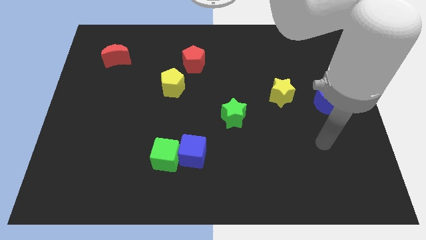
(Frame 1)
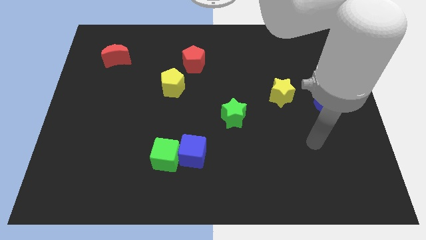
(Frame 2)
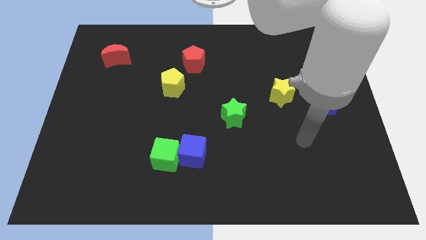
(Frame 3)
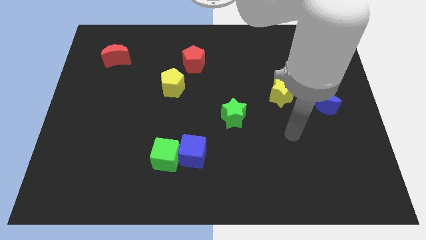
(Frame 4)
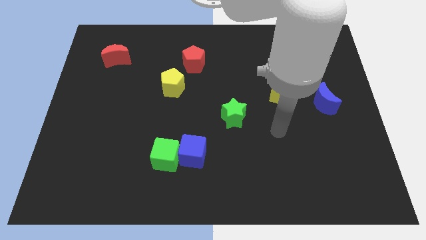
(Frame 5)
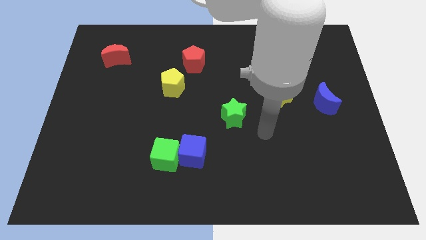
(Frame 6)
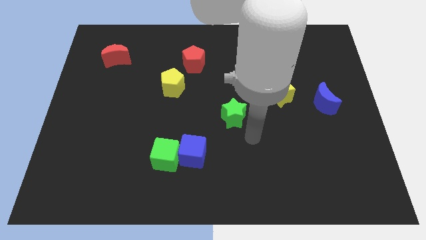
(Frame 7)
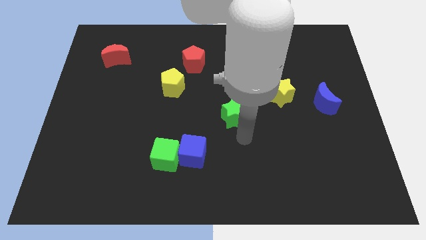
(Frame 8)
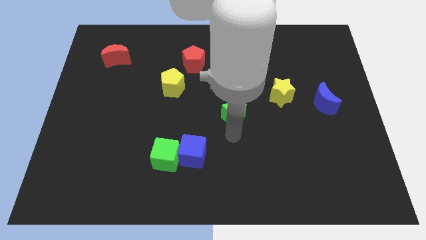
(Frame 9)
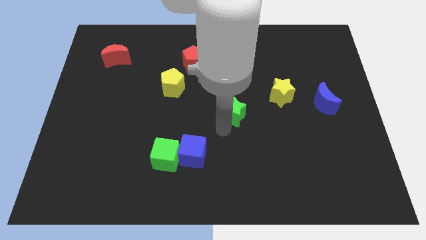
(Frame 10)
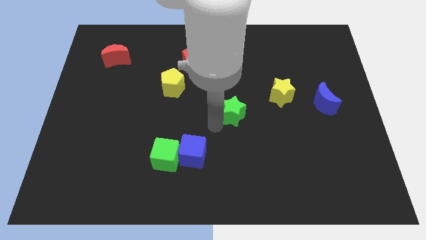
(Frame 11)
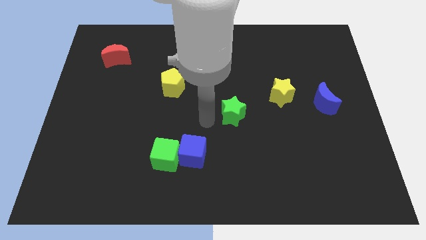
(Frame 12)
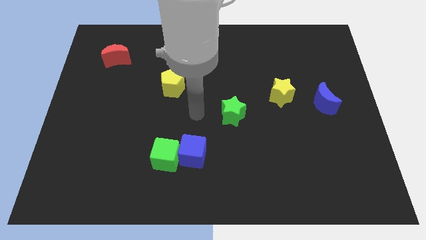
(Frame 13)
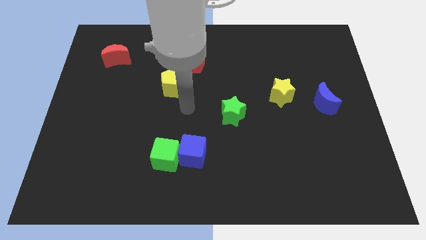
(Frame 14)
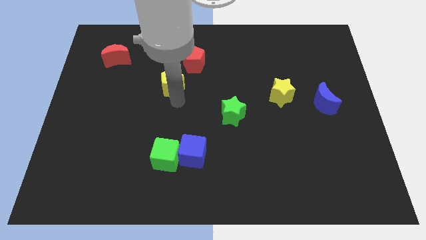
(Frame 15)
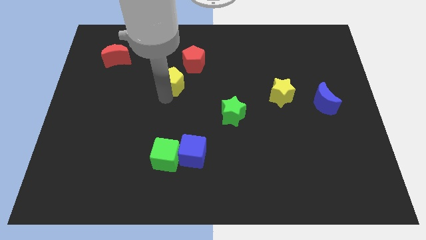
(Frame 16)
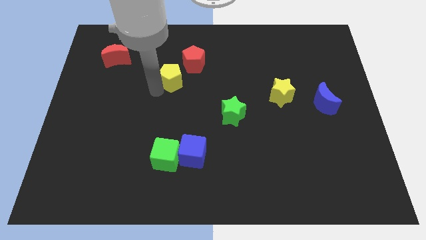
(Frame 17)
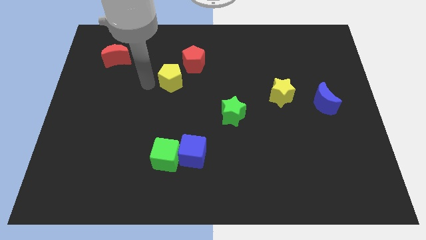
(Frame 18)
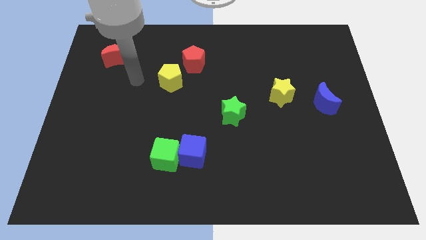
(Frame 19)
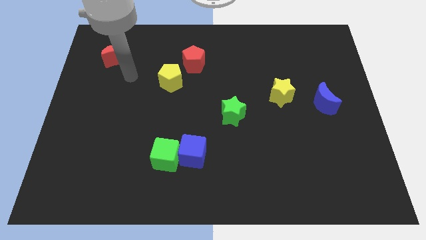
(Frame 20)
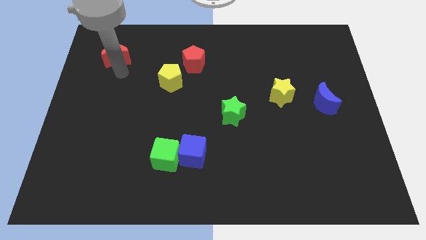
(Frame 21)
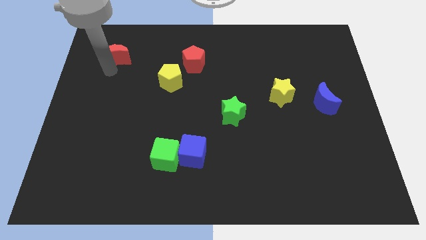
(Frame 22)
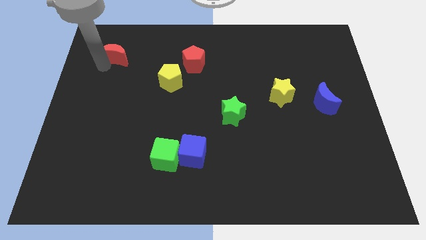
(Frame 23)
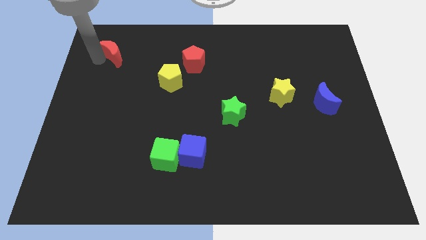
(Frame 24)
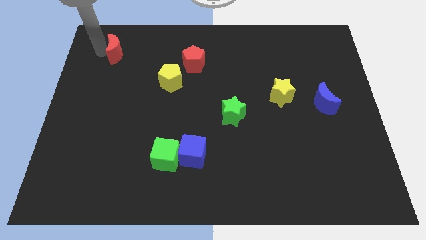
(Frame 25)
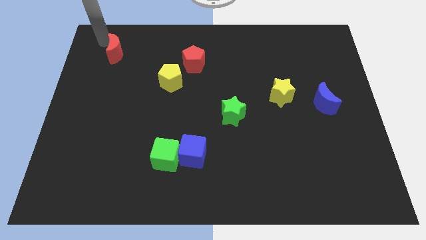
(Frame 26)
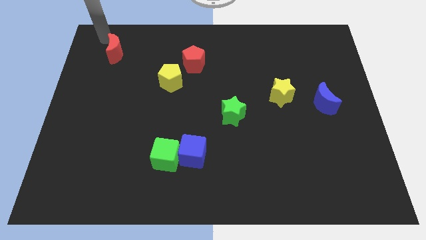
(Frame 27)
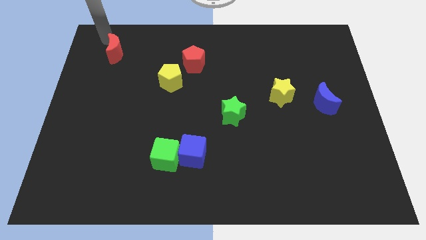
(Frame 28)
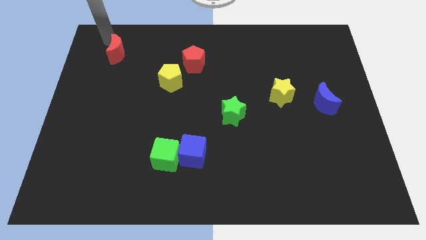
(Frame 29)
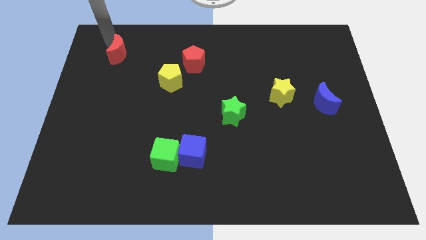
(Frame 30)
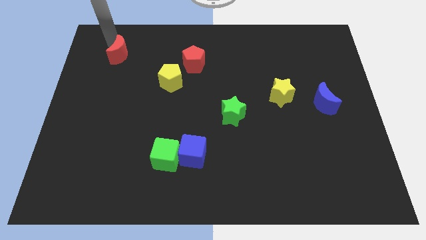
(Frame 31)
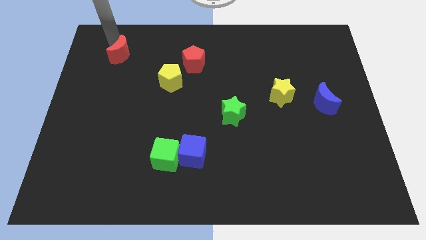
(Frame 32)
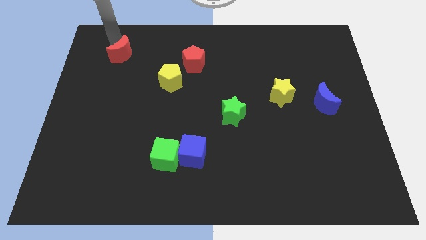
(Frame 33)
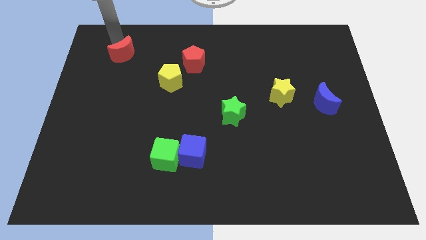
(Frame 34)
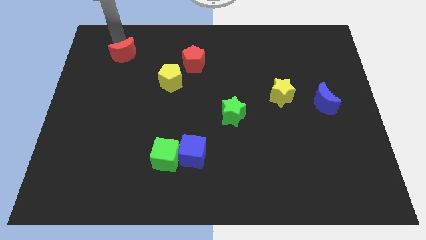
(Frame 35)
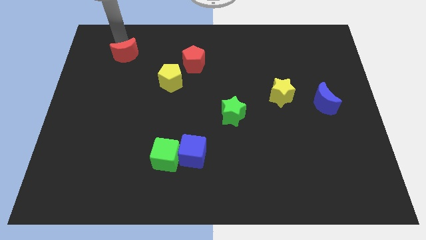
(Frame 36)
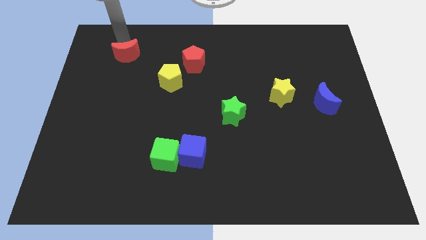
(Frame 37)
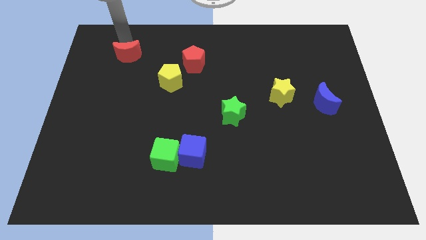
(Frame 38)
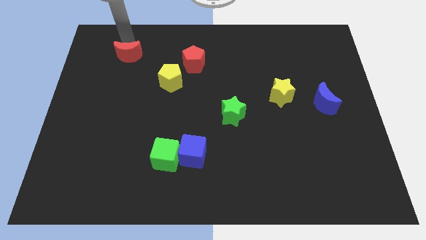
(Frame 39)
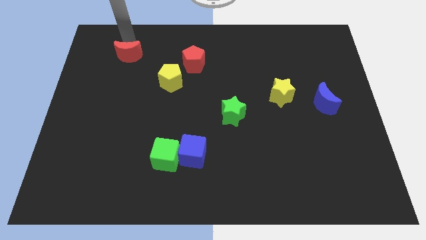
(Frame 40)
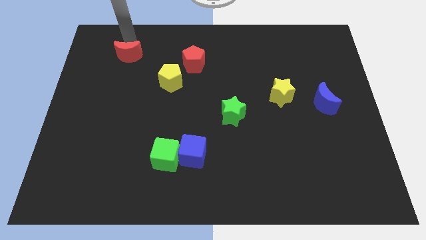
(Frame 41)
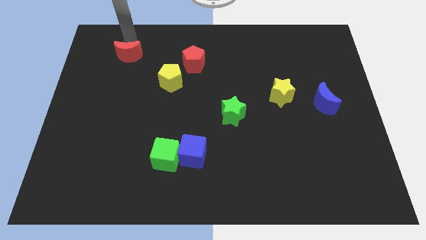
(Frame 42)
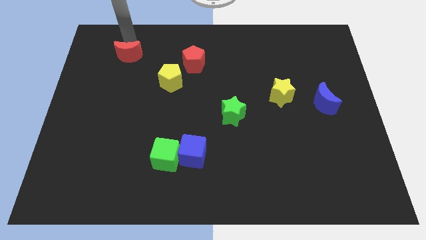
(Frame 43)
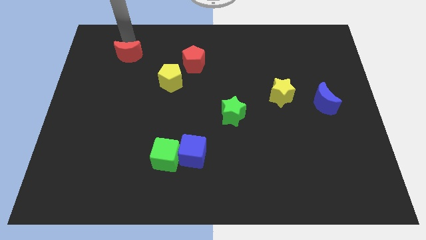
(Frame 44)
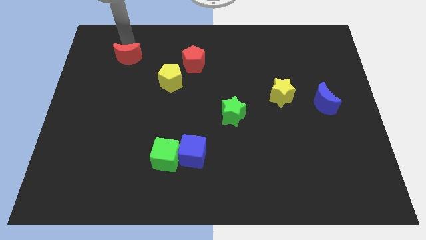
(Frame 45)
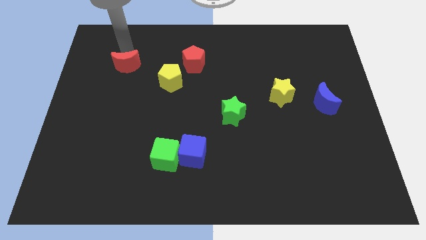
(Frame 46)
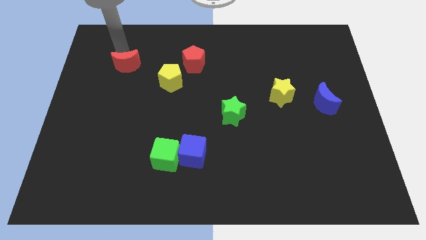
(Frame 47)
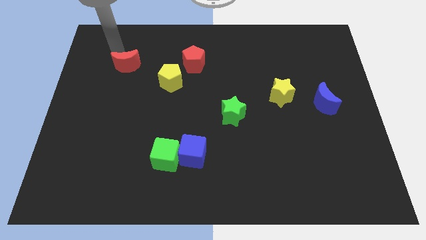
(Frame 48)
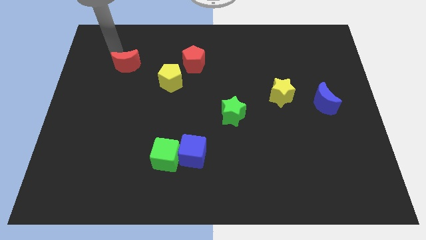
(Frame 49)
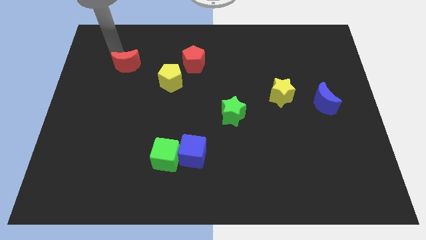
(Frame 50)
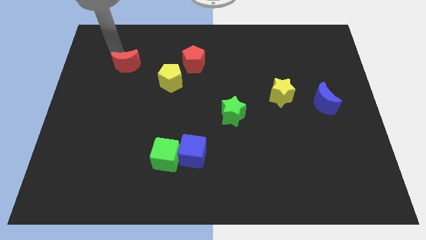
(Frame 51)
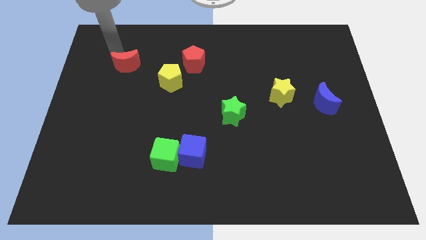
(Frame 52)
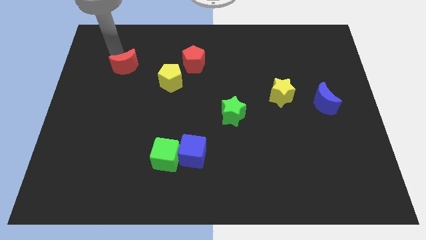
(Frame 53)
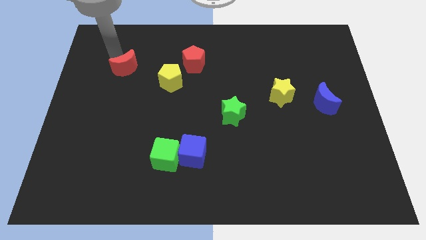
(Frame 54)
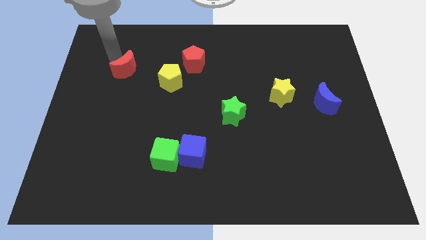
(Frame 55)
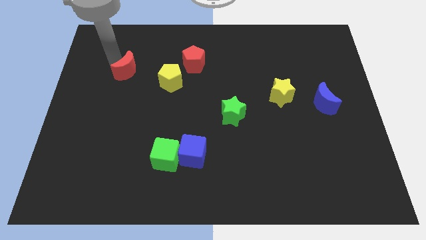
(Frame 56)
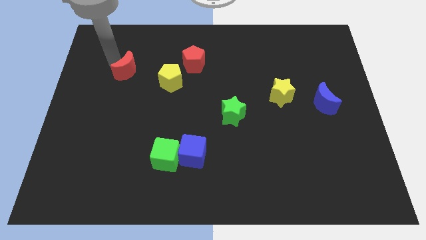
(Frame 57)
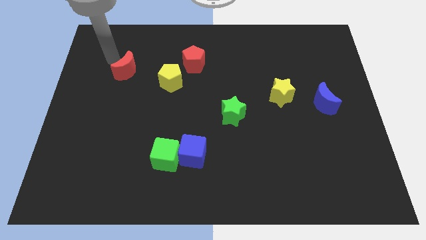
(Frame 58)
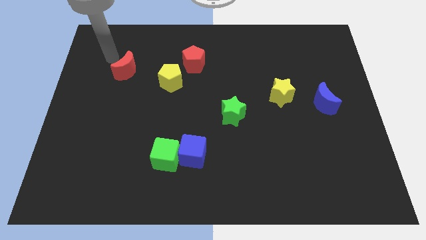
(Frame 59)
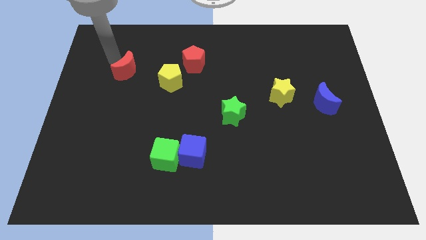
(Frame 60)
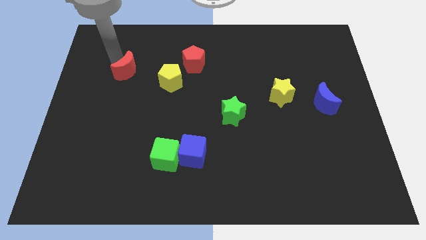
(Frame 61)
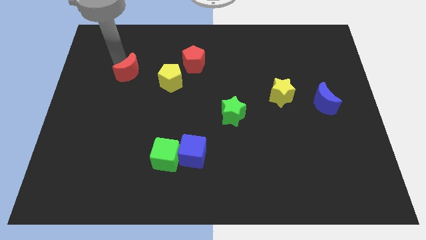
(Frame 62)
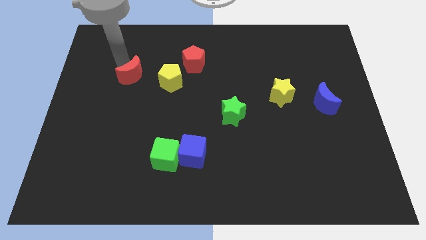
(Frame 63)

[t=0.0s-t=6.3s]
slightly move the red moon diagonally down and to the right

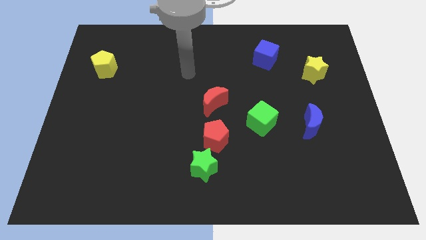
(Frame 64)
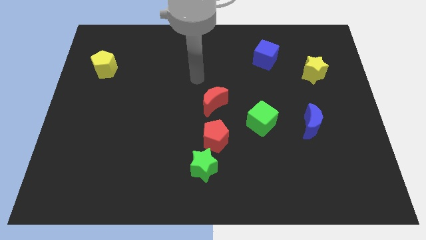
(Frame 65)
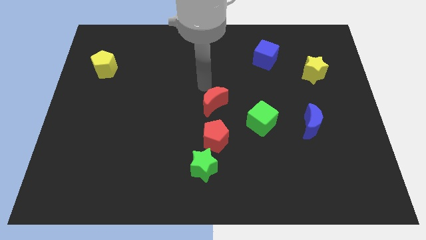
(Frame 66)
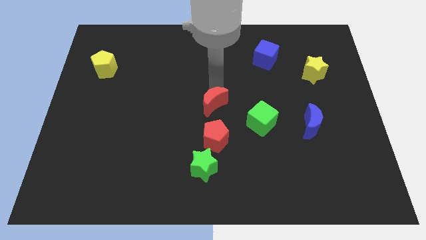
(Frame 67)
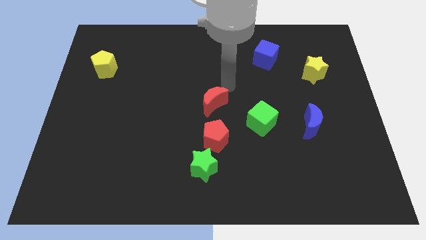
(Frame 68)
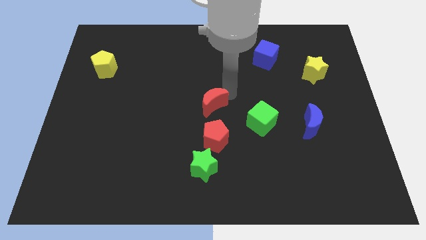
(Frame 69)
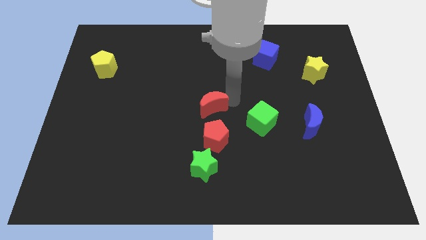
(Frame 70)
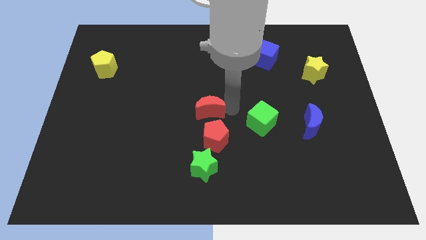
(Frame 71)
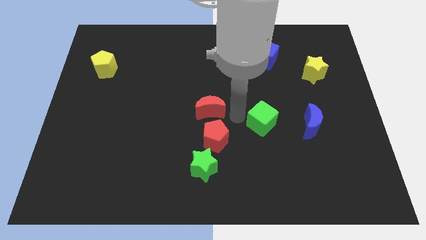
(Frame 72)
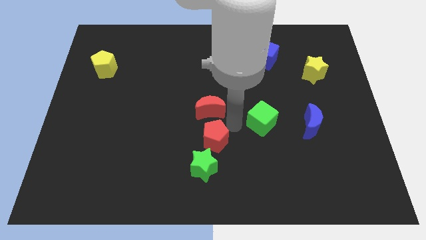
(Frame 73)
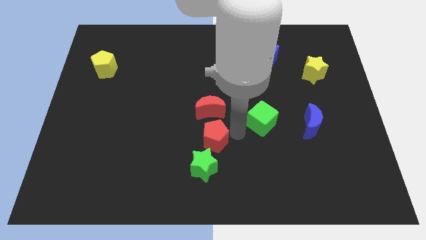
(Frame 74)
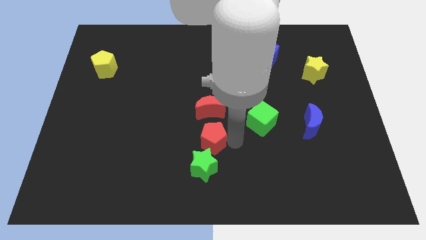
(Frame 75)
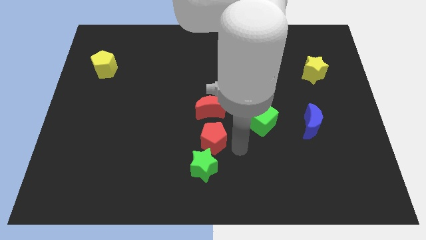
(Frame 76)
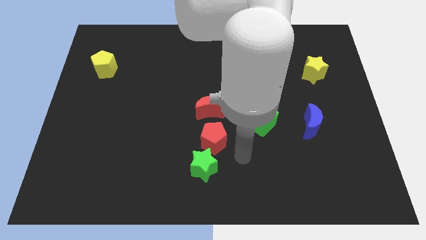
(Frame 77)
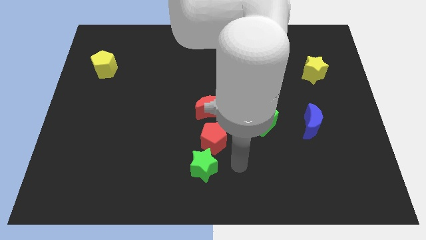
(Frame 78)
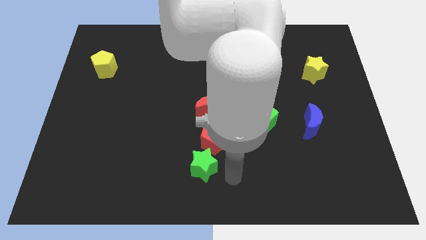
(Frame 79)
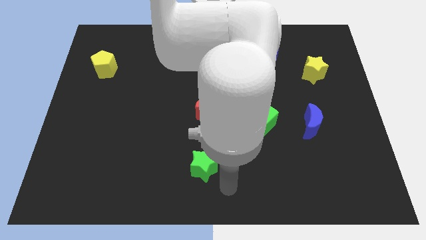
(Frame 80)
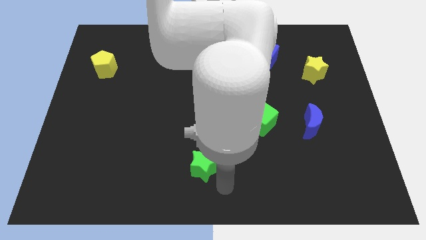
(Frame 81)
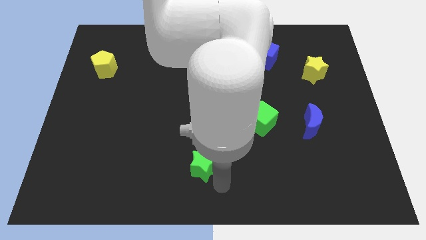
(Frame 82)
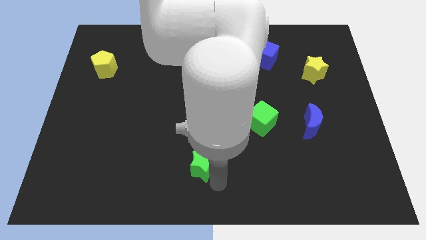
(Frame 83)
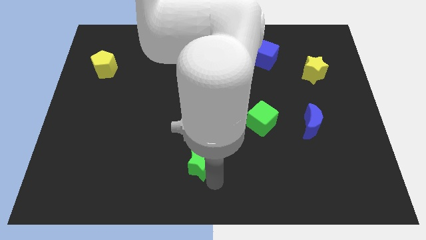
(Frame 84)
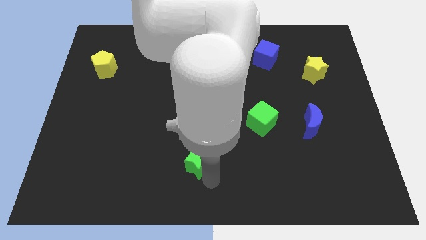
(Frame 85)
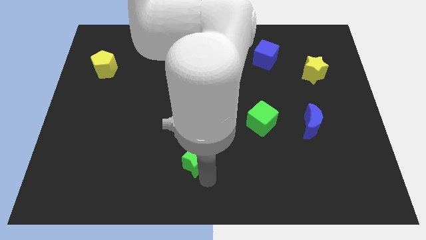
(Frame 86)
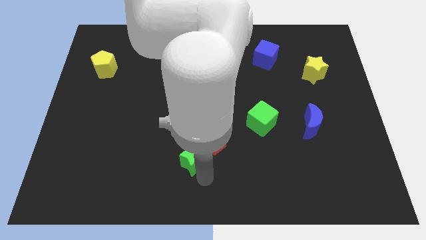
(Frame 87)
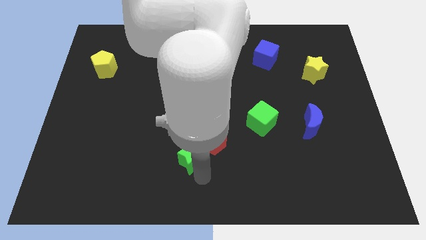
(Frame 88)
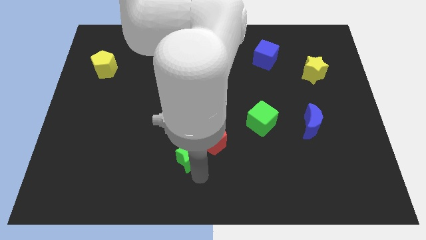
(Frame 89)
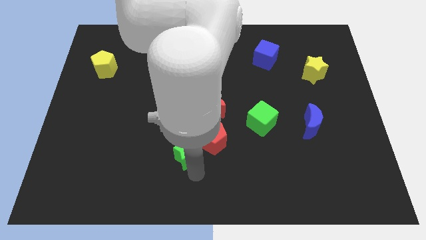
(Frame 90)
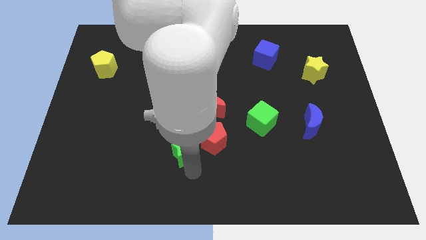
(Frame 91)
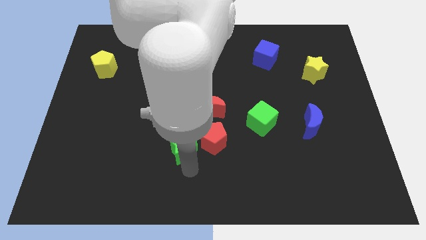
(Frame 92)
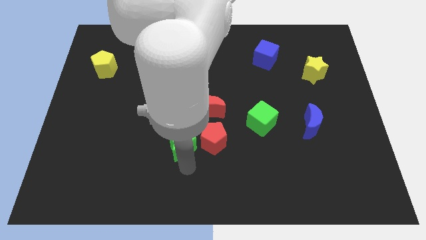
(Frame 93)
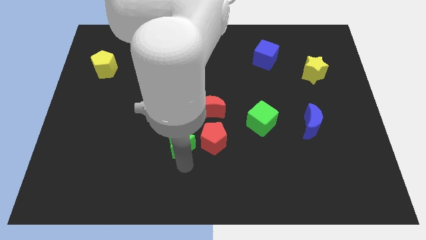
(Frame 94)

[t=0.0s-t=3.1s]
slightly push the green star up and to the left diagonally
